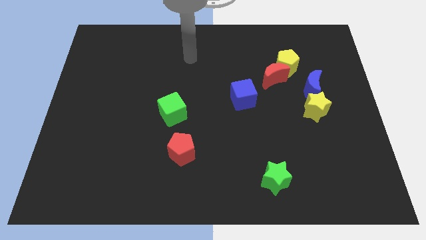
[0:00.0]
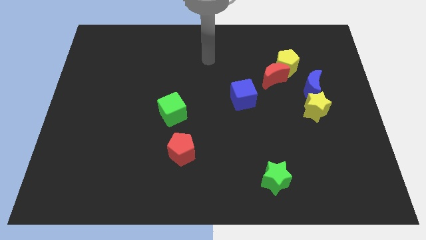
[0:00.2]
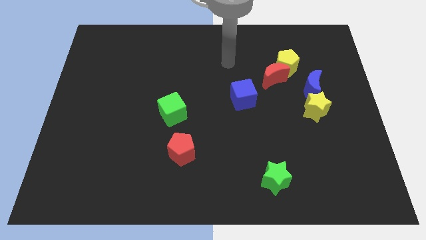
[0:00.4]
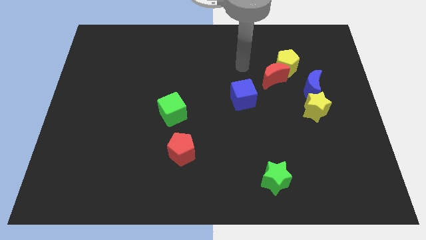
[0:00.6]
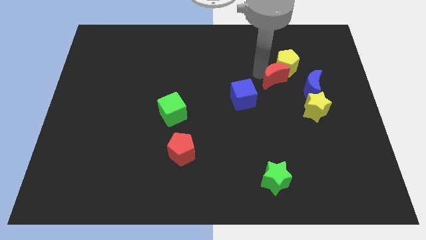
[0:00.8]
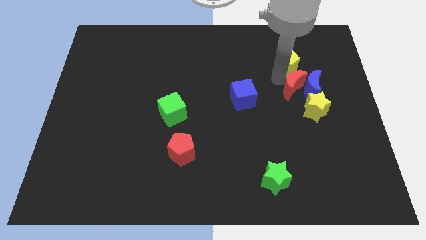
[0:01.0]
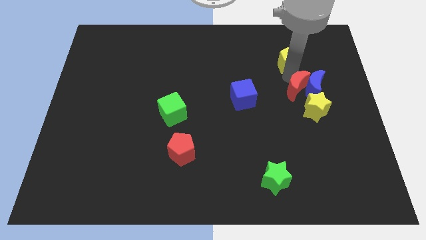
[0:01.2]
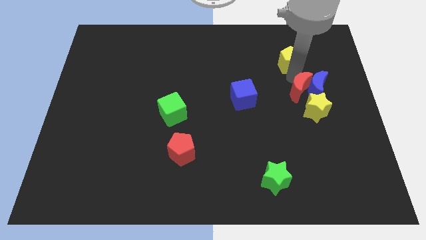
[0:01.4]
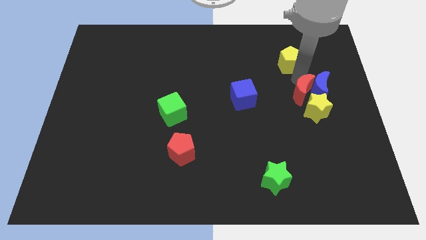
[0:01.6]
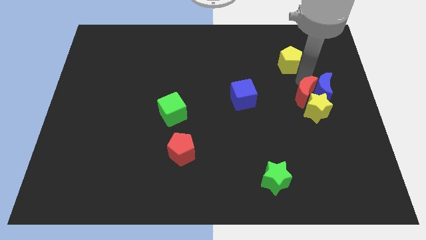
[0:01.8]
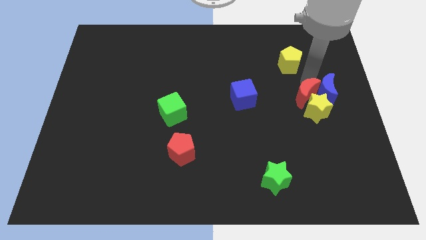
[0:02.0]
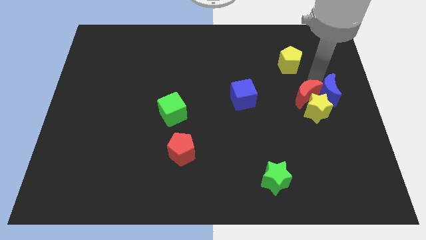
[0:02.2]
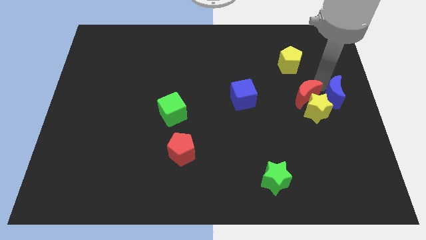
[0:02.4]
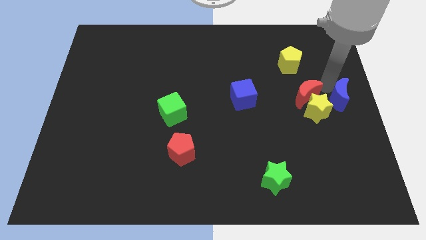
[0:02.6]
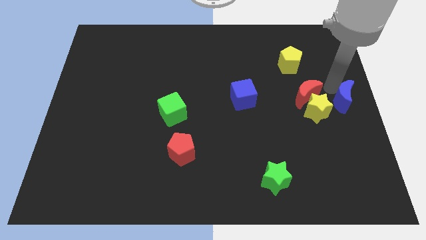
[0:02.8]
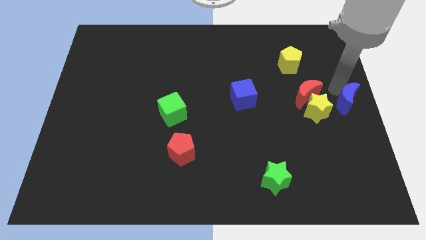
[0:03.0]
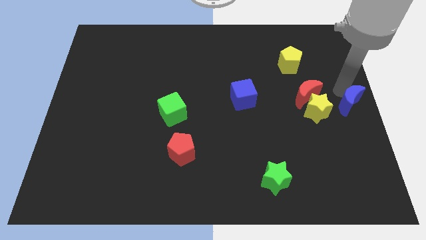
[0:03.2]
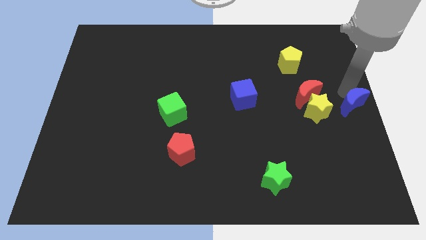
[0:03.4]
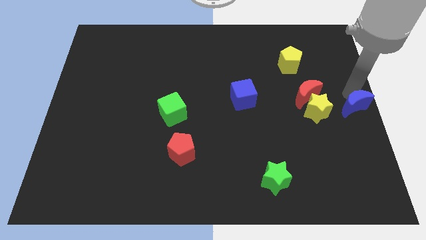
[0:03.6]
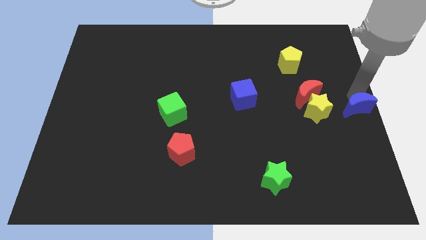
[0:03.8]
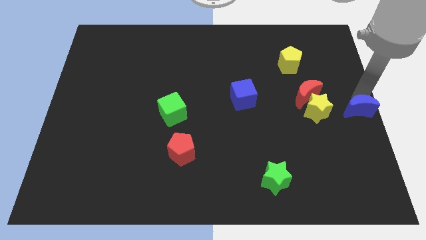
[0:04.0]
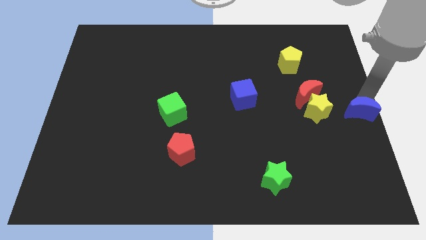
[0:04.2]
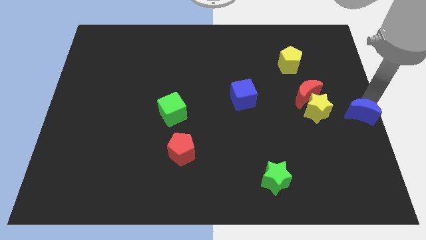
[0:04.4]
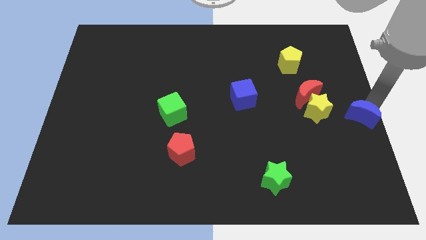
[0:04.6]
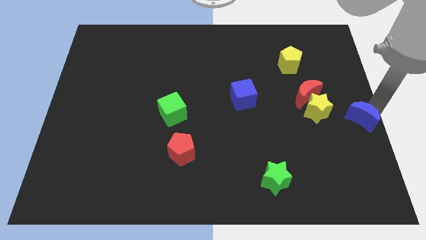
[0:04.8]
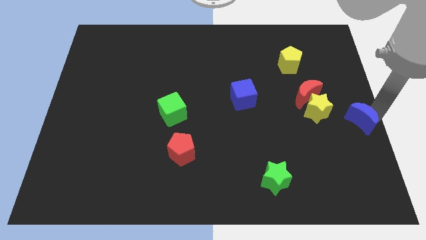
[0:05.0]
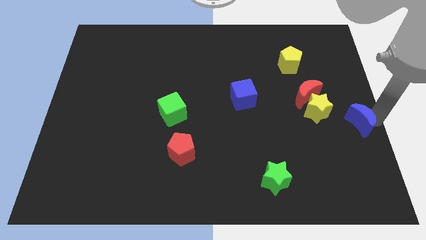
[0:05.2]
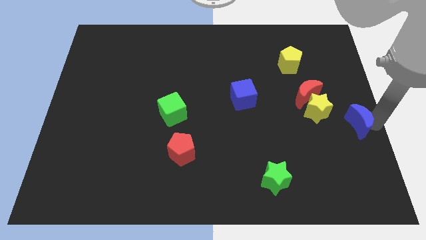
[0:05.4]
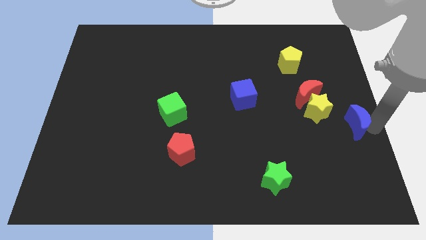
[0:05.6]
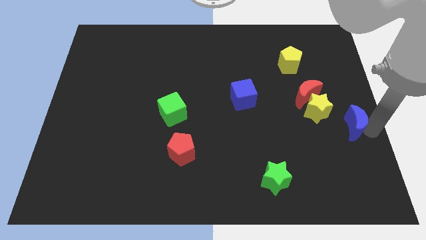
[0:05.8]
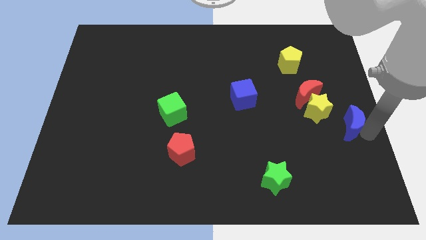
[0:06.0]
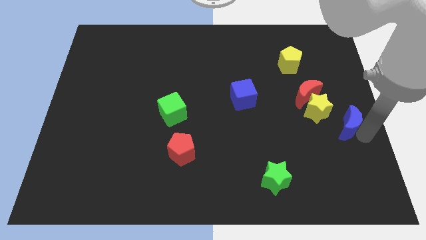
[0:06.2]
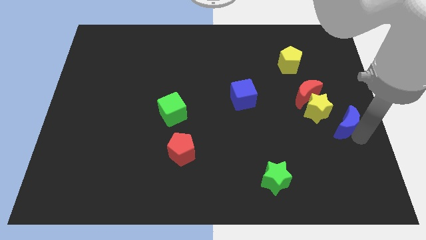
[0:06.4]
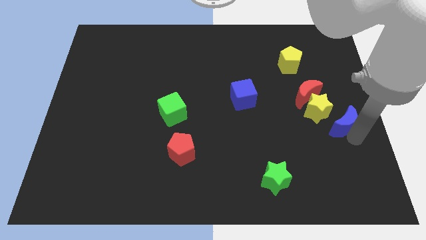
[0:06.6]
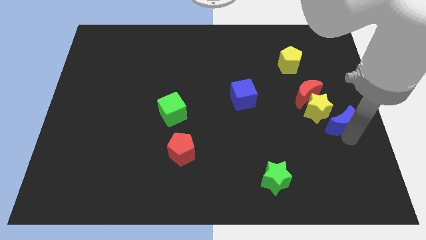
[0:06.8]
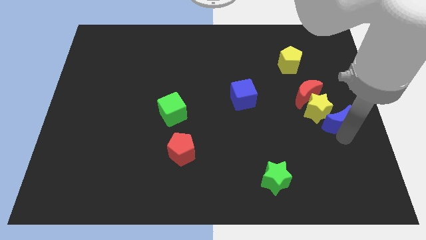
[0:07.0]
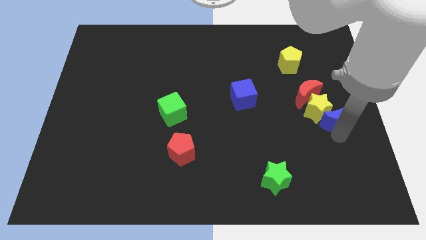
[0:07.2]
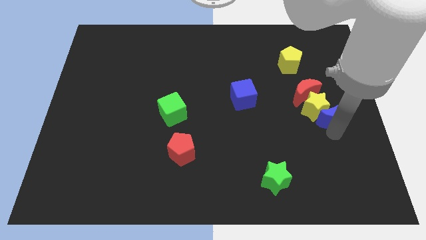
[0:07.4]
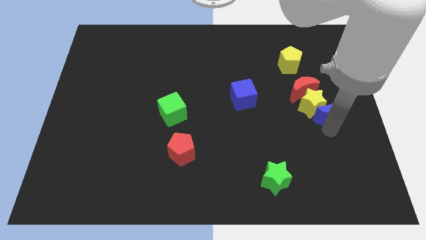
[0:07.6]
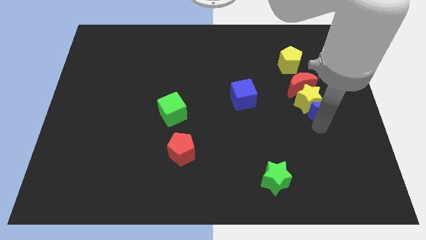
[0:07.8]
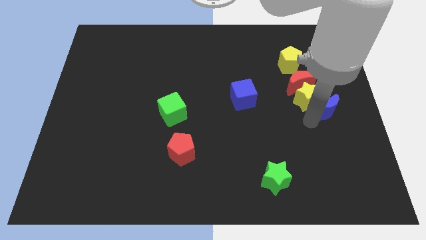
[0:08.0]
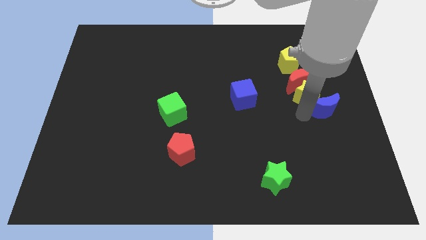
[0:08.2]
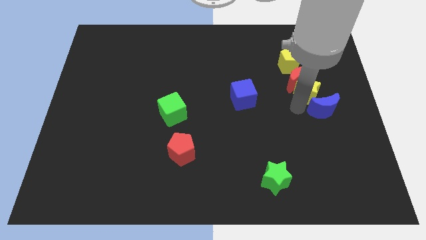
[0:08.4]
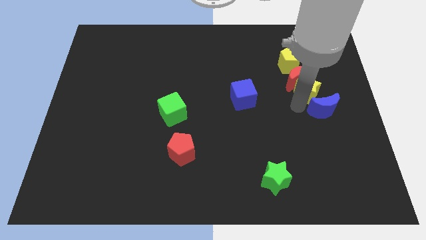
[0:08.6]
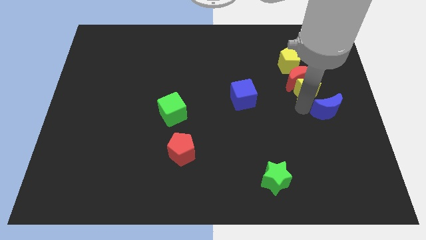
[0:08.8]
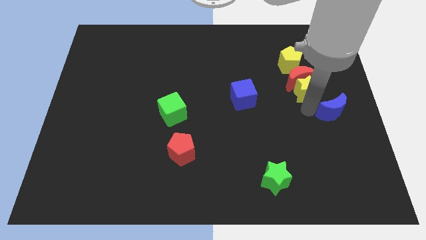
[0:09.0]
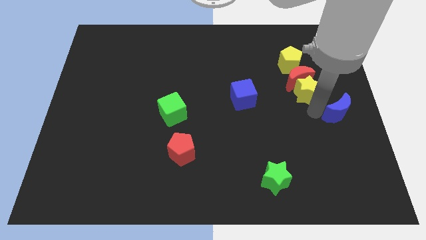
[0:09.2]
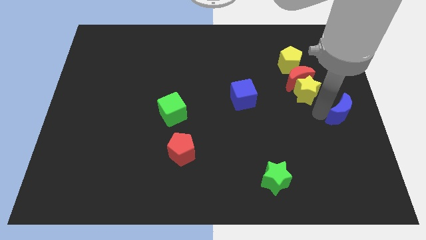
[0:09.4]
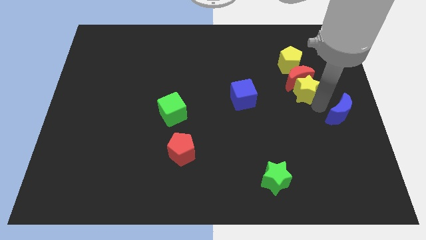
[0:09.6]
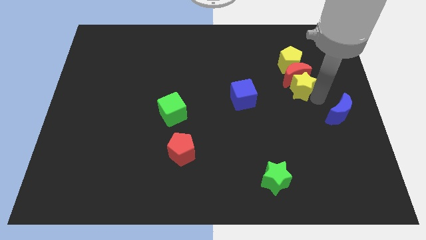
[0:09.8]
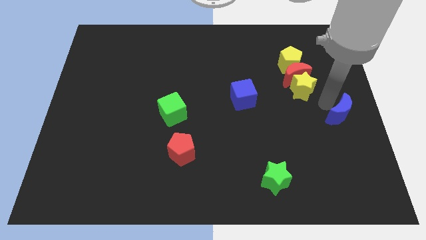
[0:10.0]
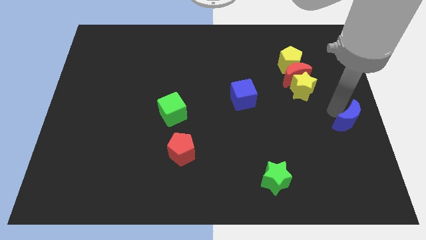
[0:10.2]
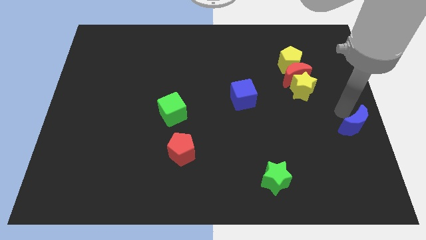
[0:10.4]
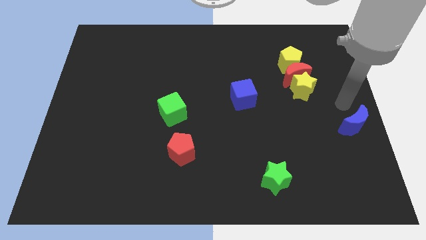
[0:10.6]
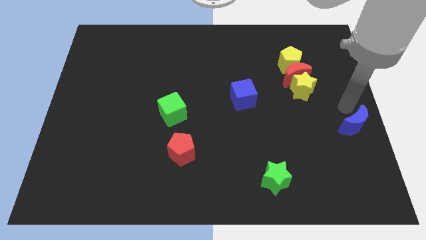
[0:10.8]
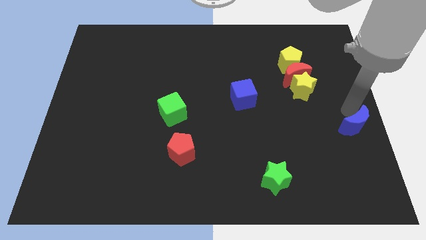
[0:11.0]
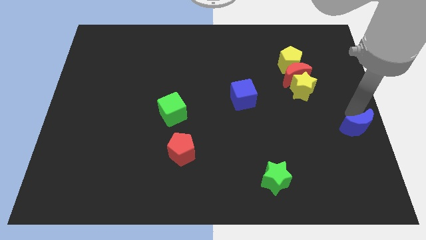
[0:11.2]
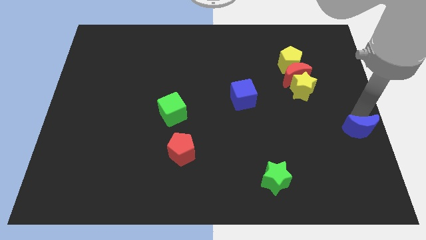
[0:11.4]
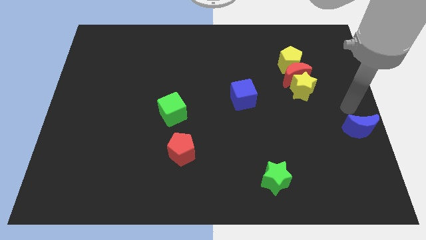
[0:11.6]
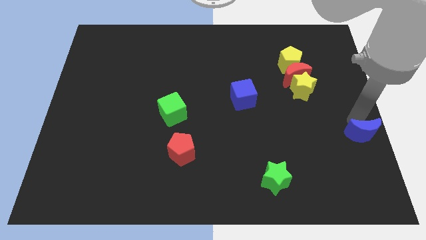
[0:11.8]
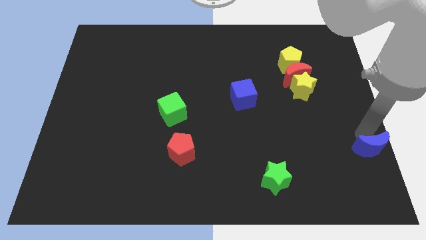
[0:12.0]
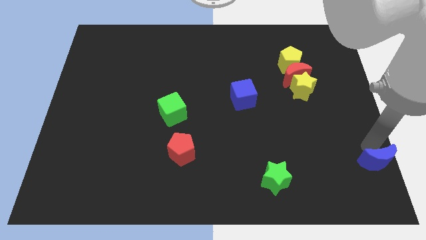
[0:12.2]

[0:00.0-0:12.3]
move the blue moon to the bottom right
